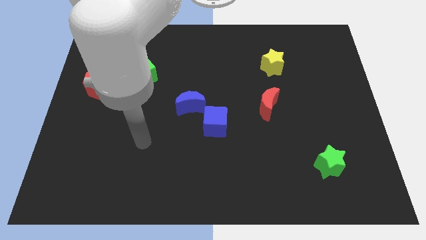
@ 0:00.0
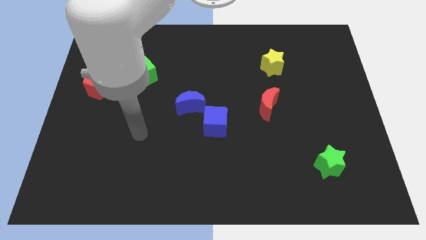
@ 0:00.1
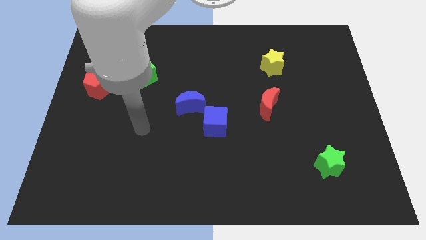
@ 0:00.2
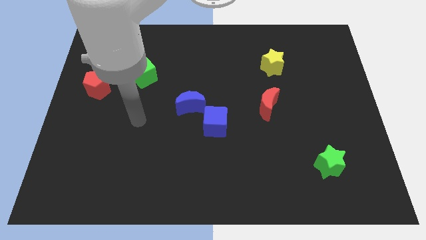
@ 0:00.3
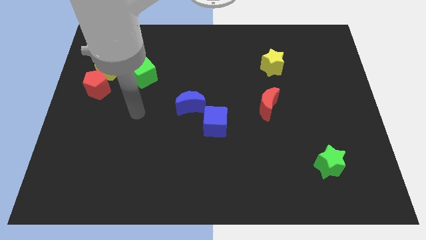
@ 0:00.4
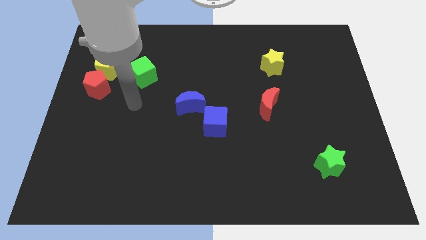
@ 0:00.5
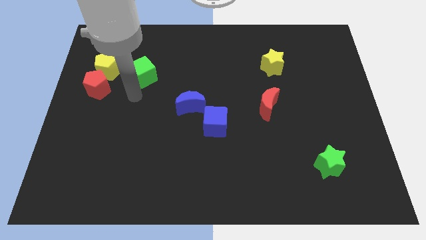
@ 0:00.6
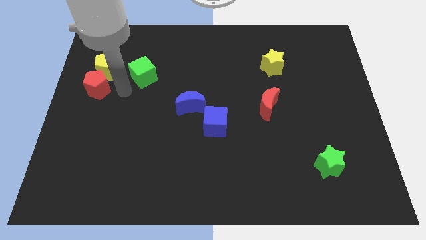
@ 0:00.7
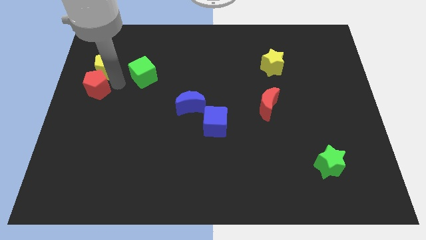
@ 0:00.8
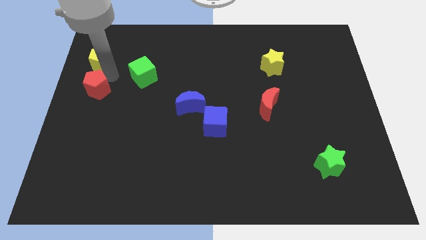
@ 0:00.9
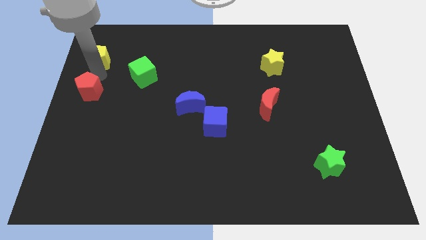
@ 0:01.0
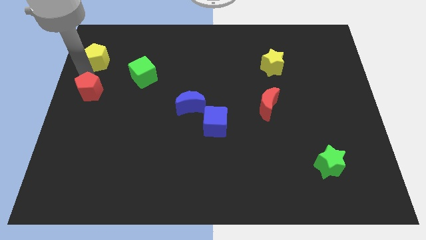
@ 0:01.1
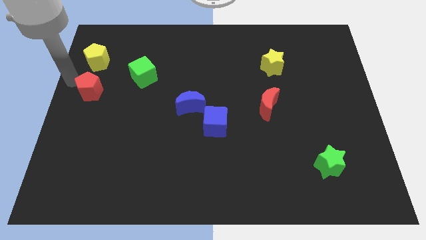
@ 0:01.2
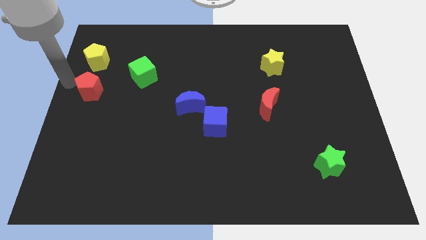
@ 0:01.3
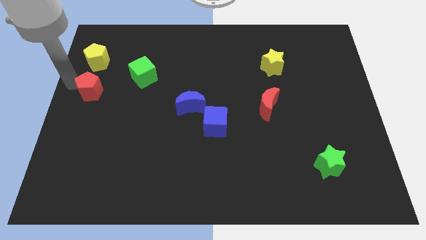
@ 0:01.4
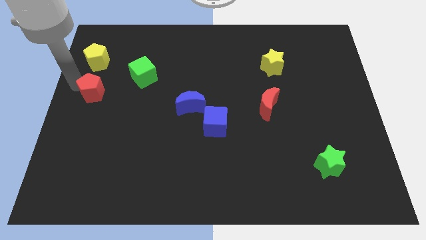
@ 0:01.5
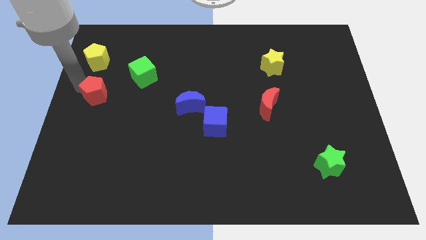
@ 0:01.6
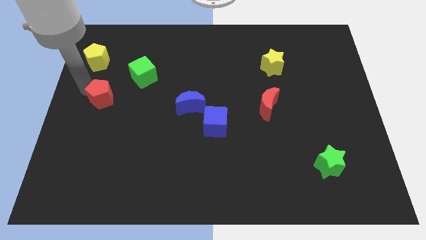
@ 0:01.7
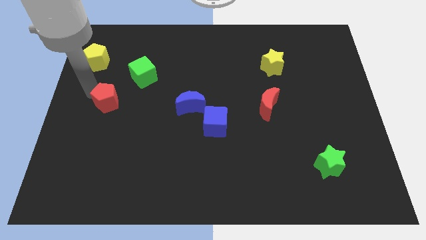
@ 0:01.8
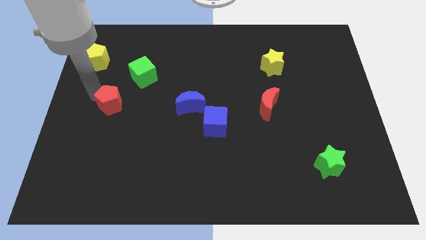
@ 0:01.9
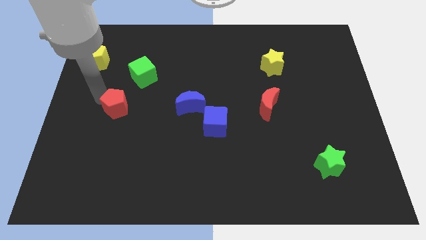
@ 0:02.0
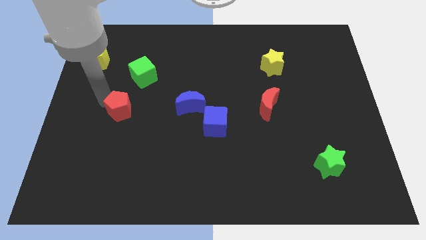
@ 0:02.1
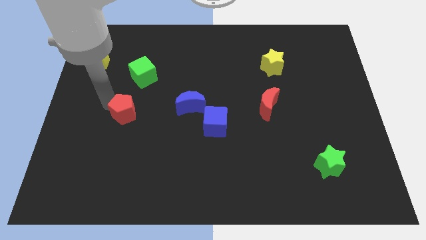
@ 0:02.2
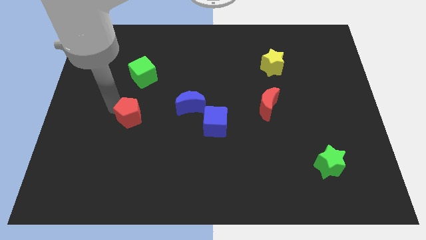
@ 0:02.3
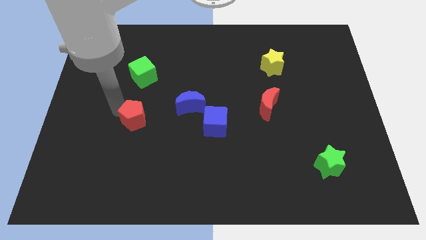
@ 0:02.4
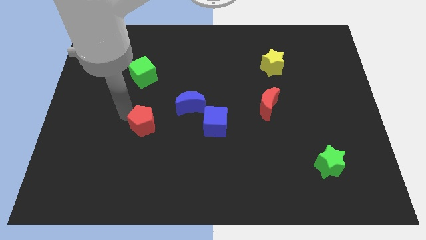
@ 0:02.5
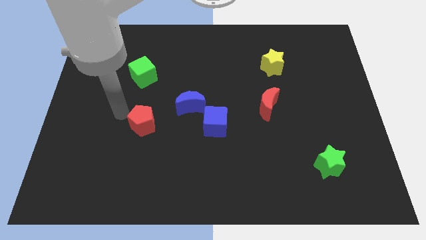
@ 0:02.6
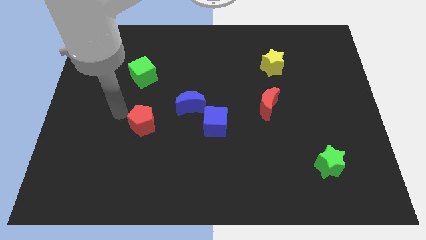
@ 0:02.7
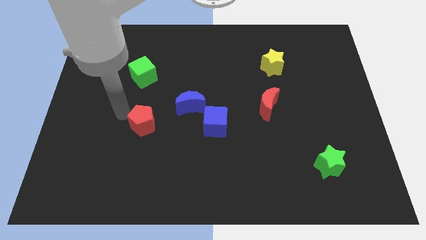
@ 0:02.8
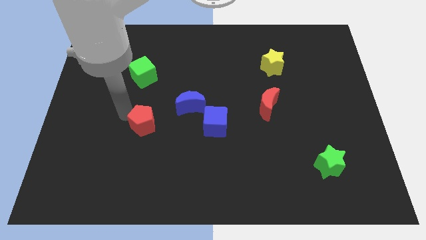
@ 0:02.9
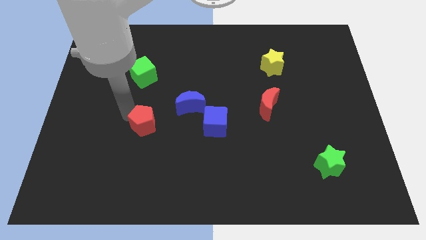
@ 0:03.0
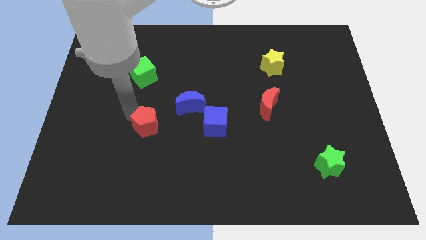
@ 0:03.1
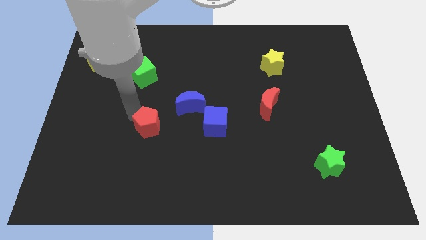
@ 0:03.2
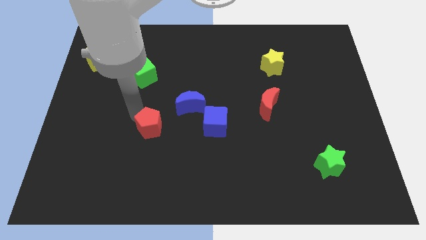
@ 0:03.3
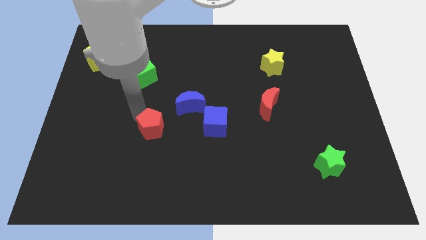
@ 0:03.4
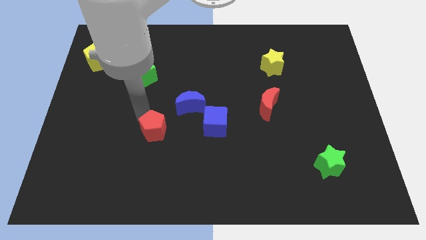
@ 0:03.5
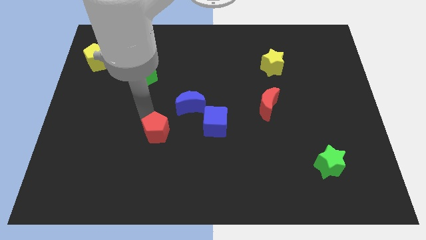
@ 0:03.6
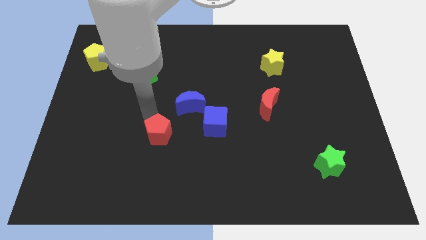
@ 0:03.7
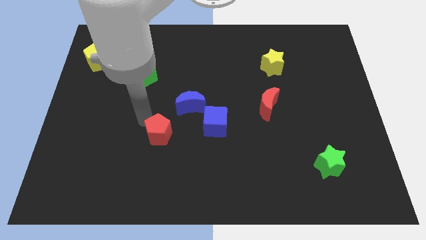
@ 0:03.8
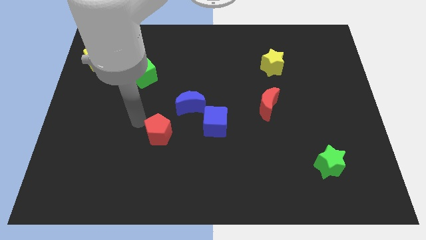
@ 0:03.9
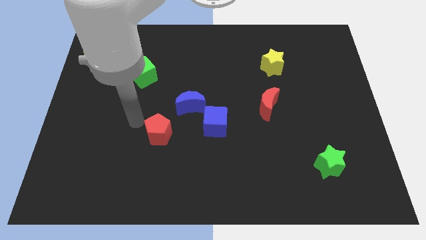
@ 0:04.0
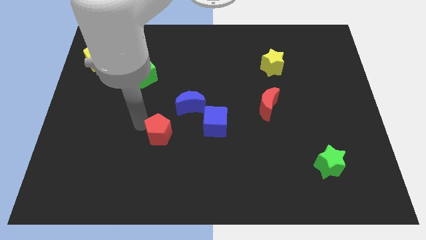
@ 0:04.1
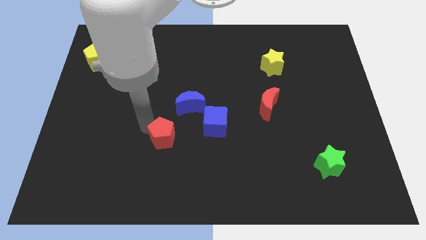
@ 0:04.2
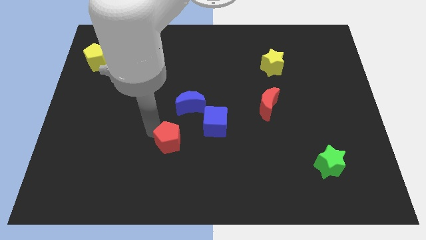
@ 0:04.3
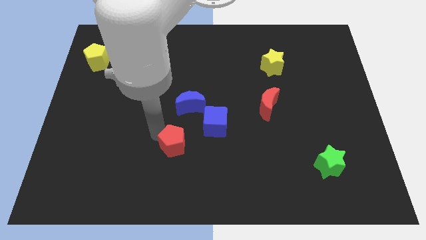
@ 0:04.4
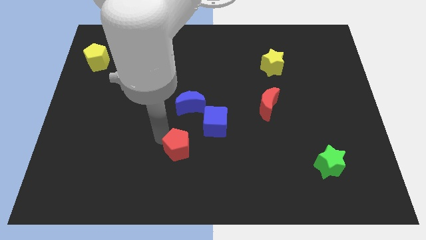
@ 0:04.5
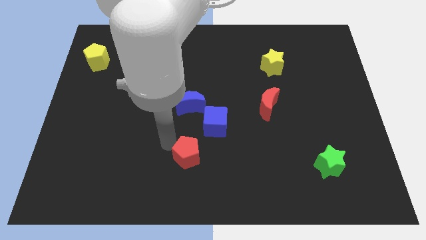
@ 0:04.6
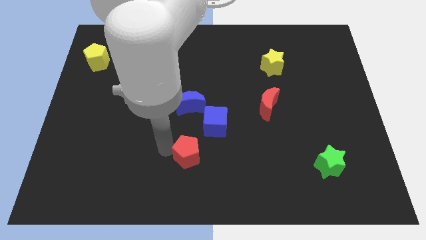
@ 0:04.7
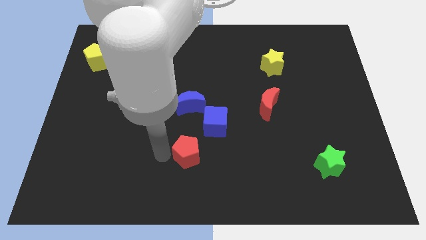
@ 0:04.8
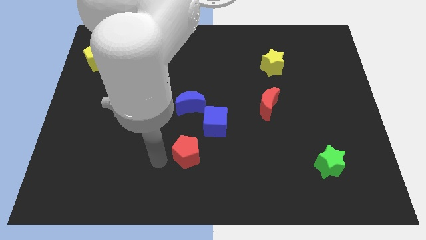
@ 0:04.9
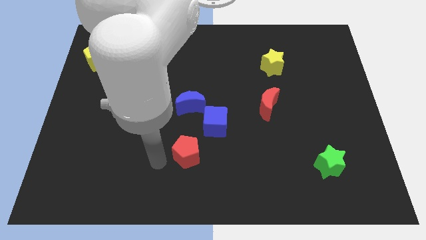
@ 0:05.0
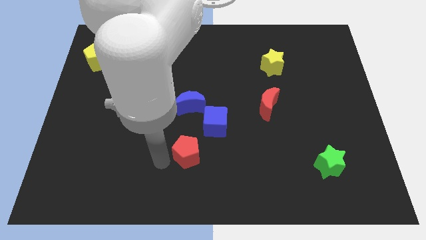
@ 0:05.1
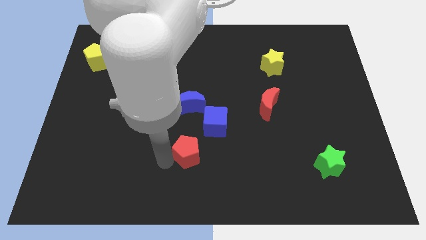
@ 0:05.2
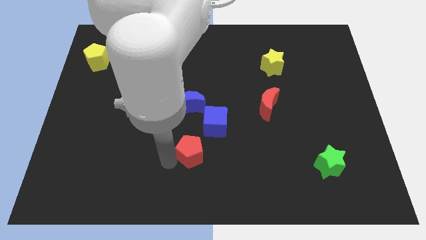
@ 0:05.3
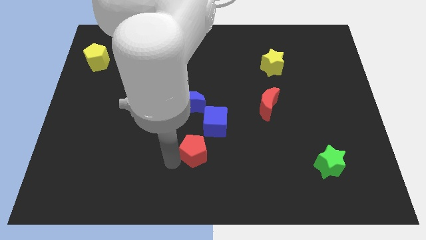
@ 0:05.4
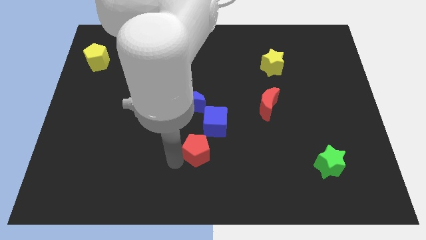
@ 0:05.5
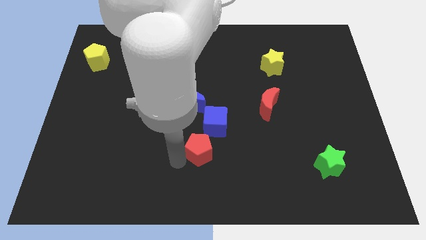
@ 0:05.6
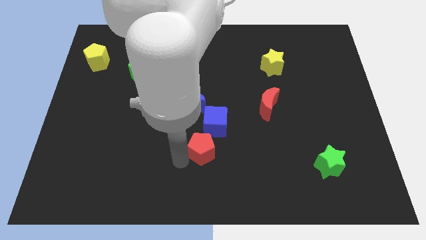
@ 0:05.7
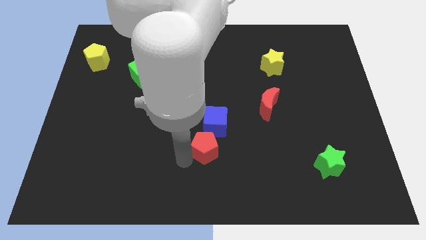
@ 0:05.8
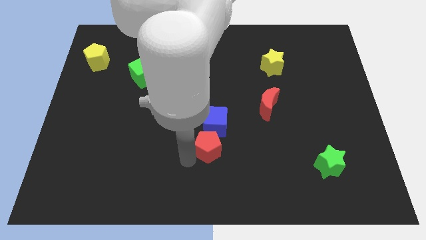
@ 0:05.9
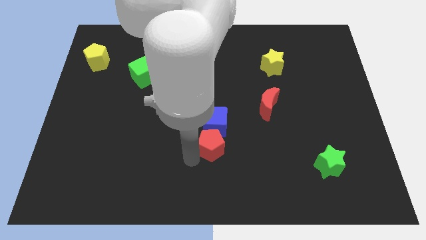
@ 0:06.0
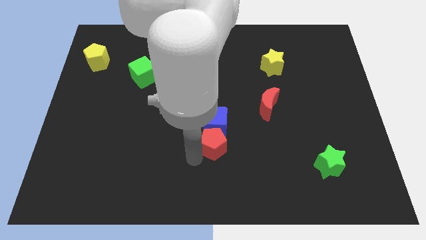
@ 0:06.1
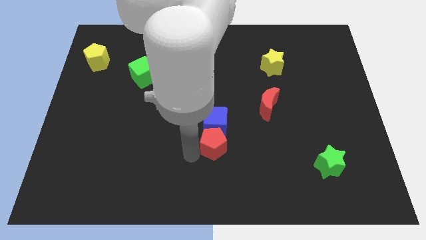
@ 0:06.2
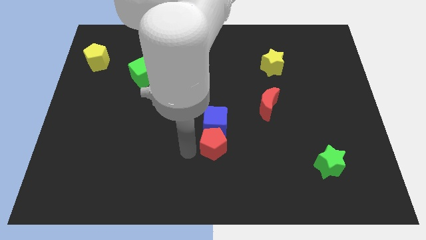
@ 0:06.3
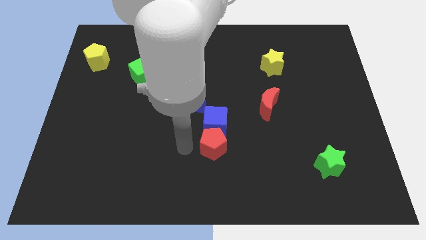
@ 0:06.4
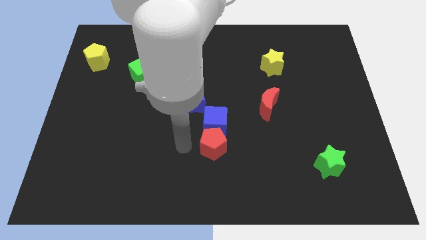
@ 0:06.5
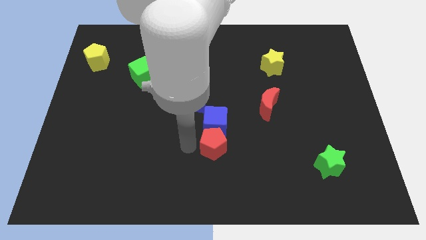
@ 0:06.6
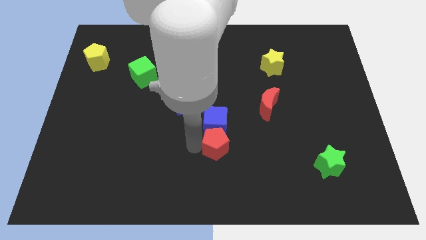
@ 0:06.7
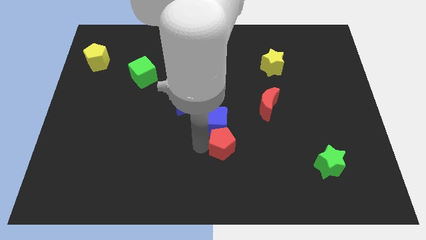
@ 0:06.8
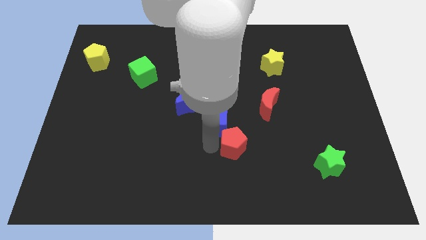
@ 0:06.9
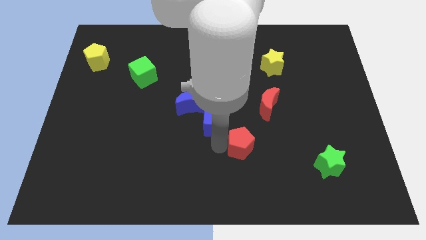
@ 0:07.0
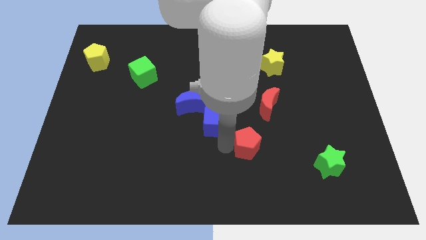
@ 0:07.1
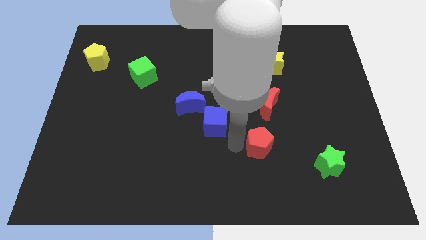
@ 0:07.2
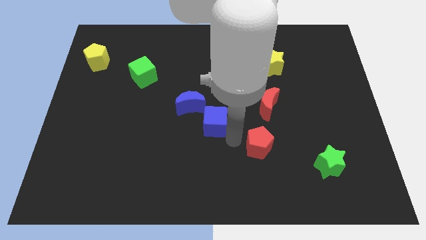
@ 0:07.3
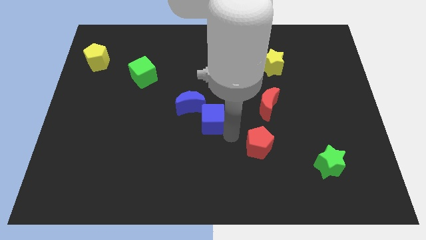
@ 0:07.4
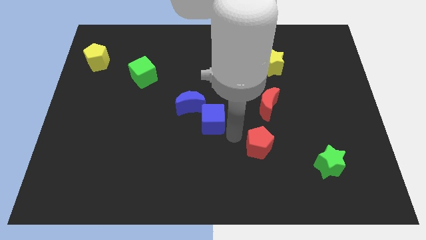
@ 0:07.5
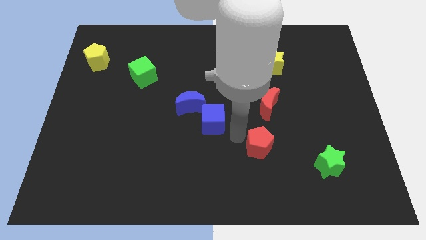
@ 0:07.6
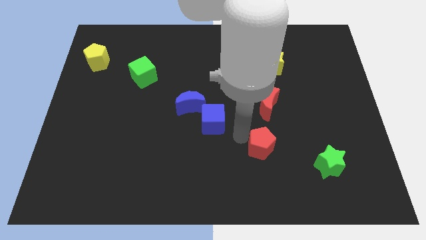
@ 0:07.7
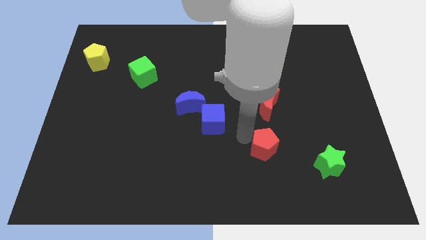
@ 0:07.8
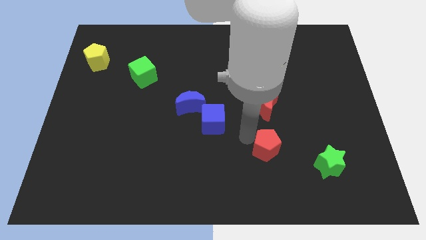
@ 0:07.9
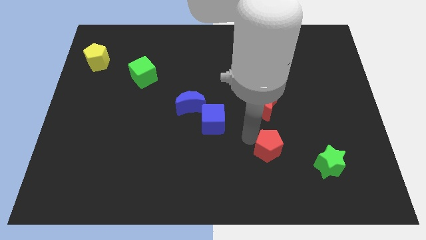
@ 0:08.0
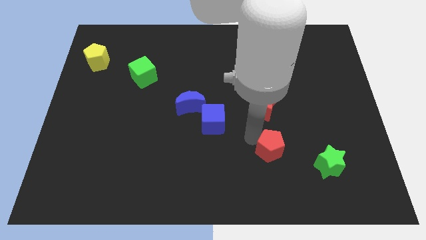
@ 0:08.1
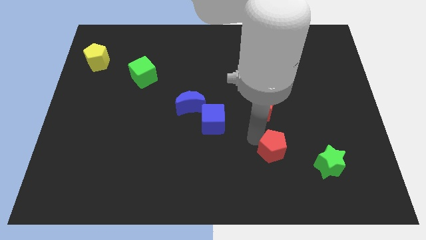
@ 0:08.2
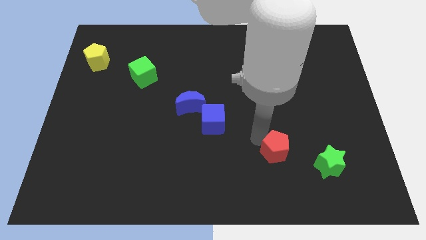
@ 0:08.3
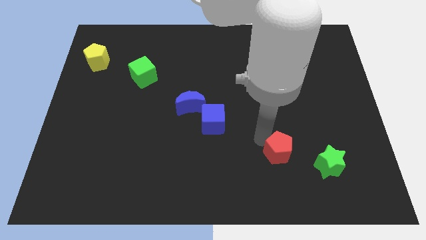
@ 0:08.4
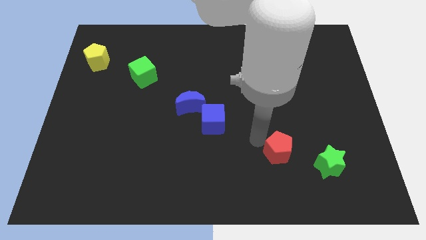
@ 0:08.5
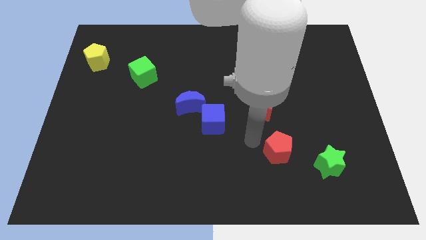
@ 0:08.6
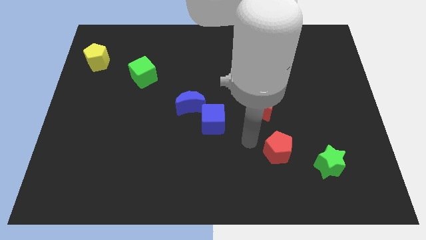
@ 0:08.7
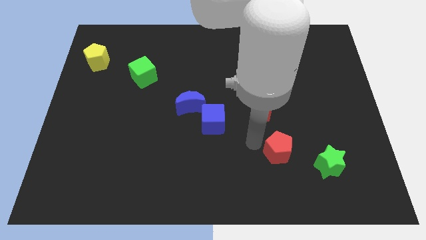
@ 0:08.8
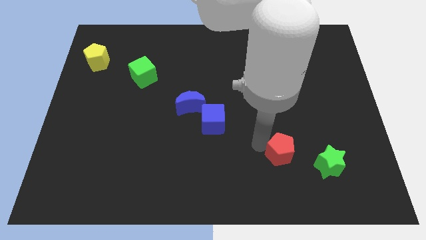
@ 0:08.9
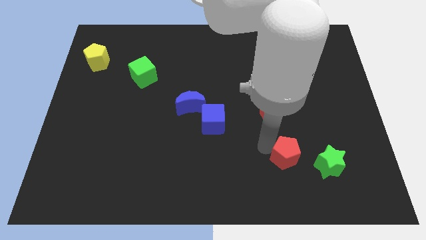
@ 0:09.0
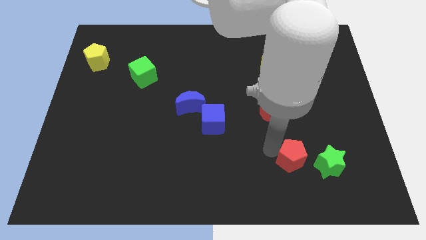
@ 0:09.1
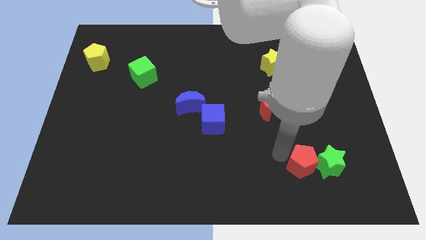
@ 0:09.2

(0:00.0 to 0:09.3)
push the red pentagon to the green star
